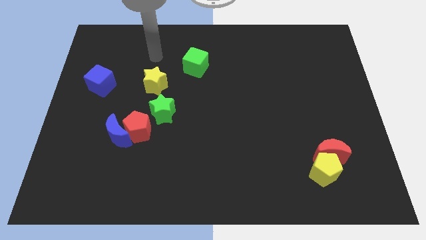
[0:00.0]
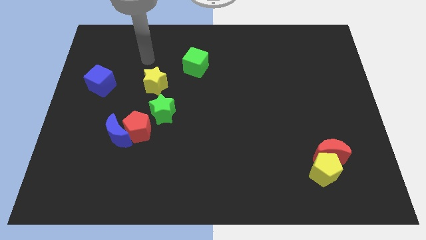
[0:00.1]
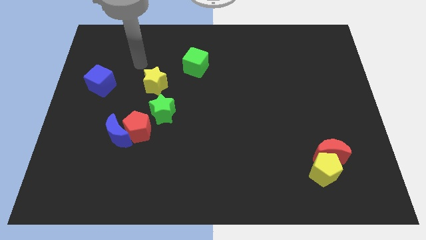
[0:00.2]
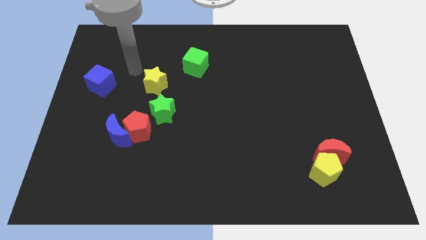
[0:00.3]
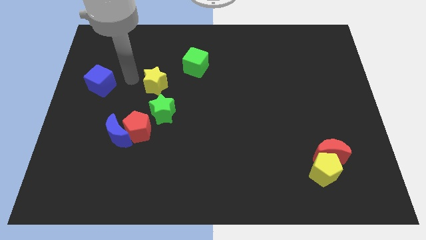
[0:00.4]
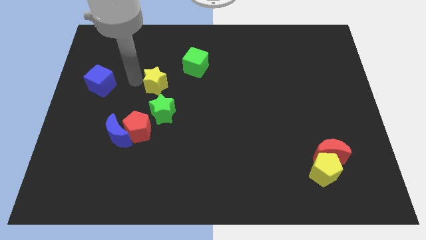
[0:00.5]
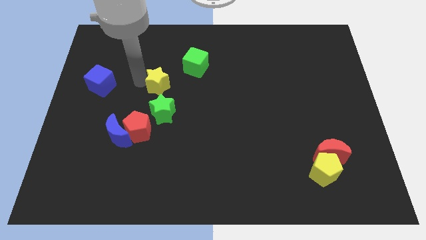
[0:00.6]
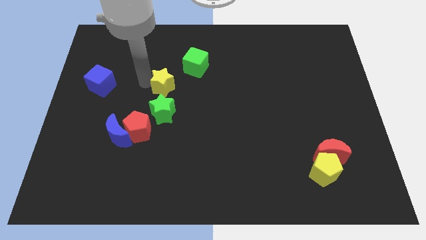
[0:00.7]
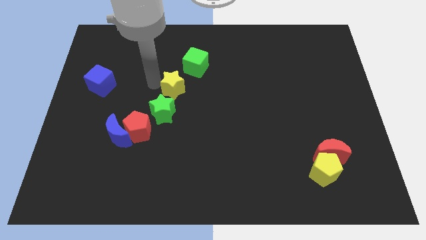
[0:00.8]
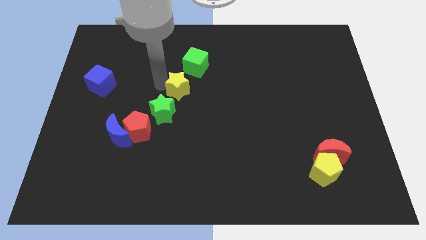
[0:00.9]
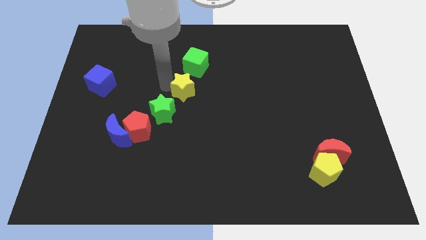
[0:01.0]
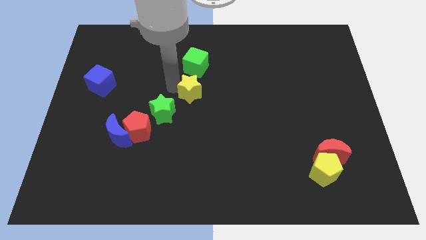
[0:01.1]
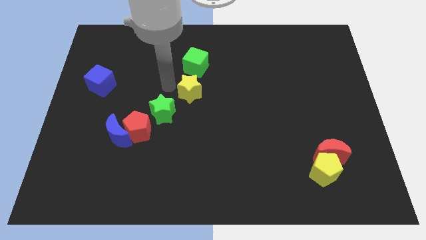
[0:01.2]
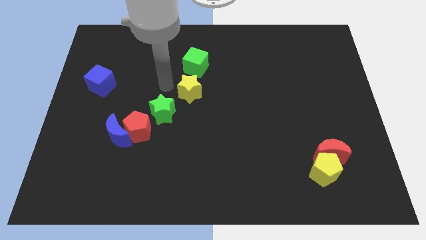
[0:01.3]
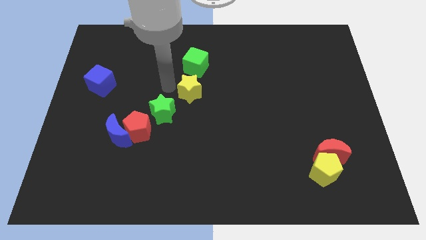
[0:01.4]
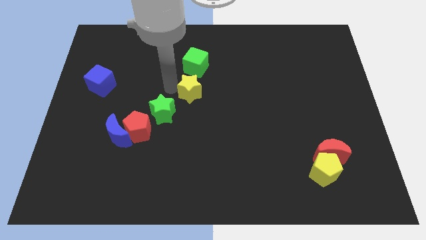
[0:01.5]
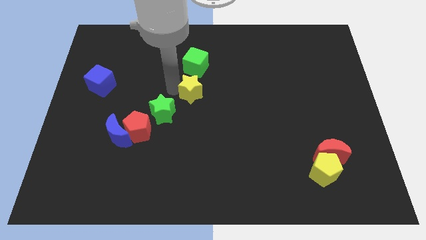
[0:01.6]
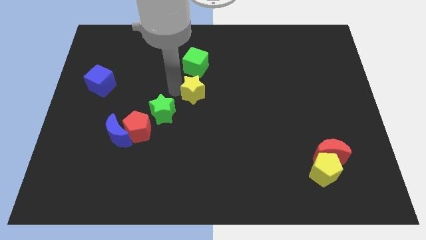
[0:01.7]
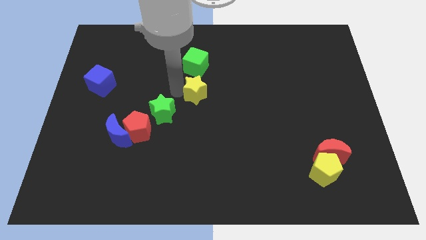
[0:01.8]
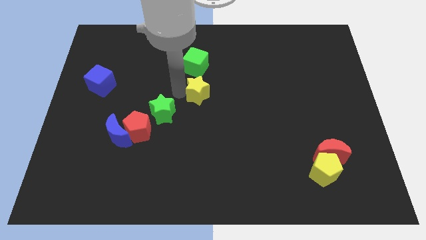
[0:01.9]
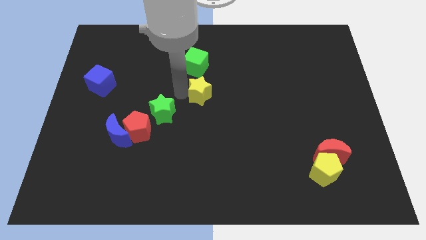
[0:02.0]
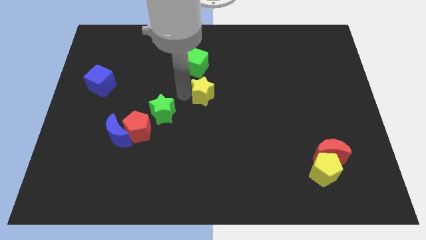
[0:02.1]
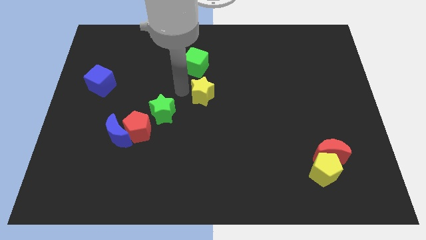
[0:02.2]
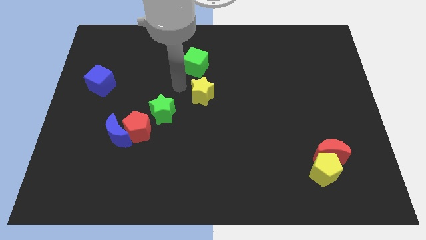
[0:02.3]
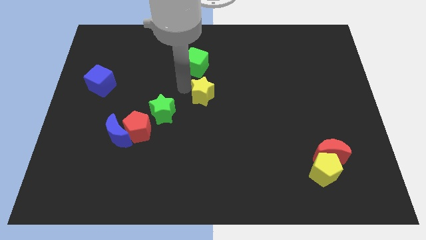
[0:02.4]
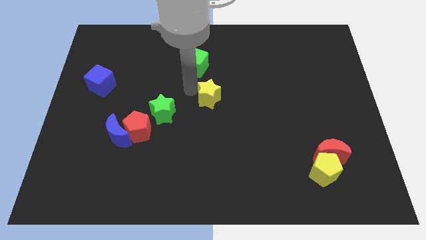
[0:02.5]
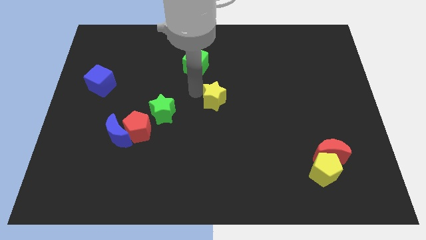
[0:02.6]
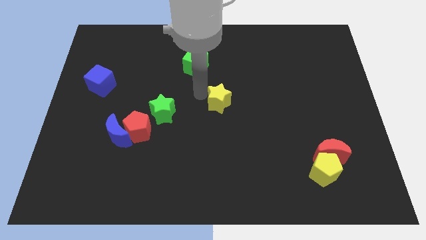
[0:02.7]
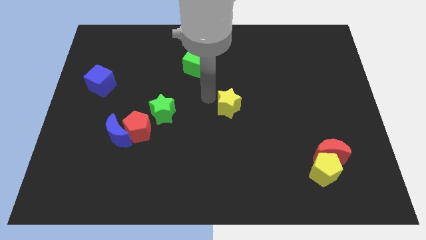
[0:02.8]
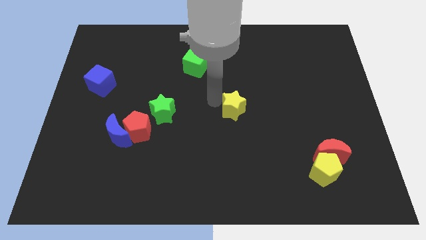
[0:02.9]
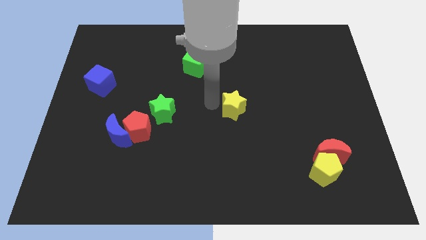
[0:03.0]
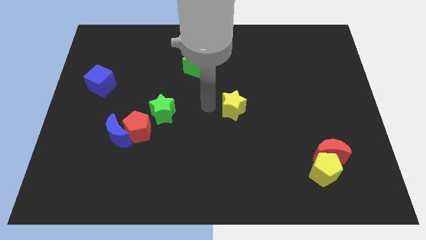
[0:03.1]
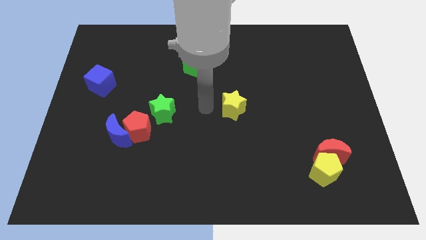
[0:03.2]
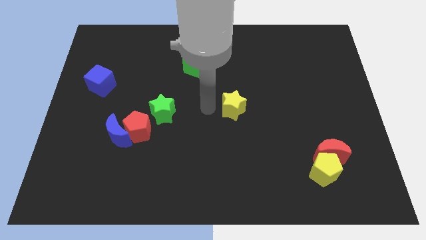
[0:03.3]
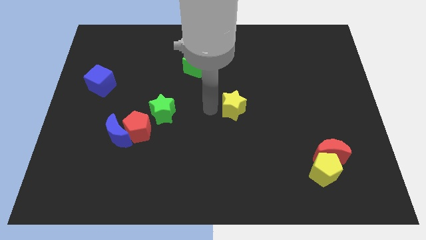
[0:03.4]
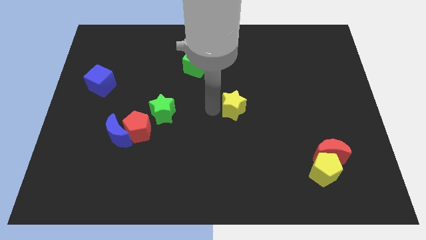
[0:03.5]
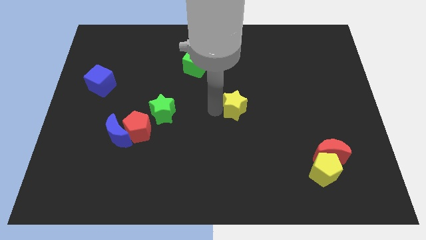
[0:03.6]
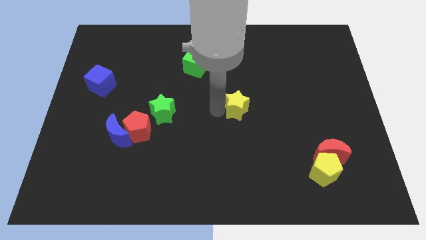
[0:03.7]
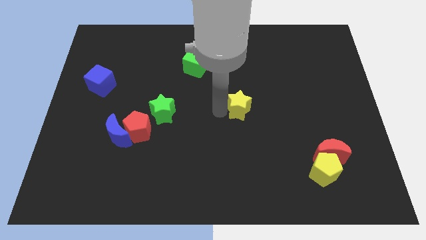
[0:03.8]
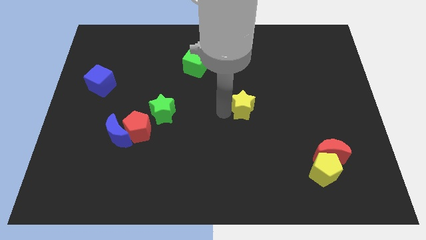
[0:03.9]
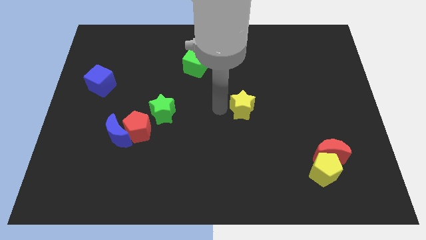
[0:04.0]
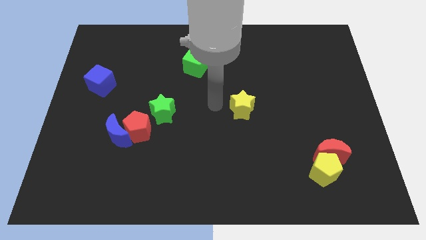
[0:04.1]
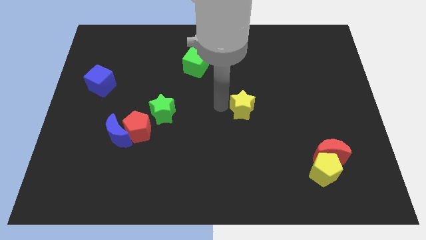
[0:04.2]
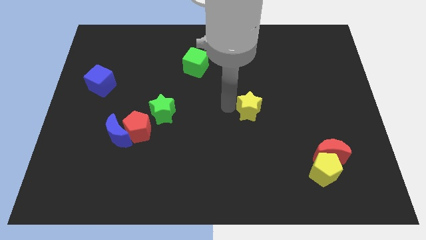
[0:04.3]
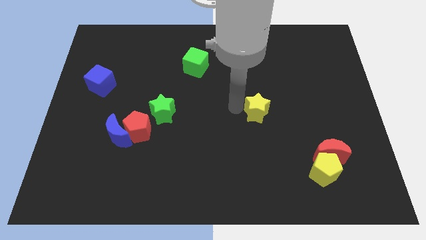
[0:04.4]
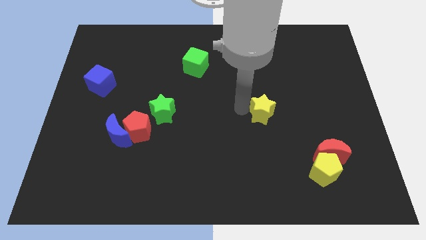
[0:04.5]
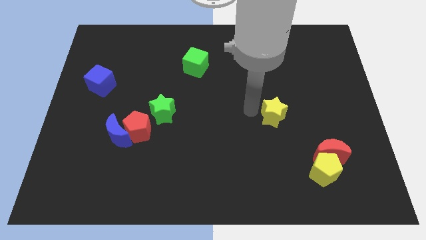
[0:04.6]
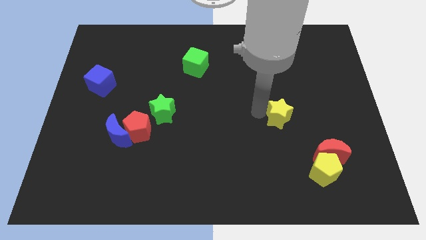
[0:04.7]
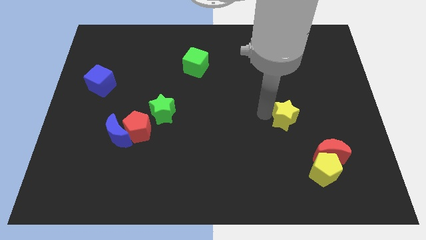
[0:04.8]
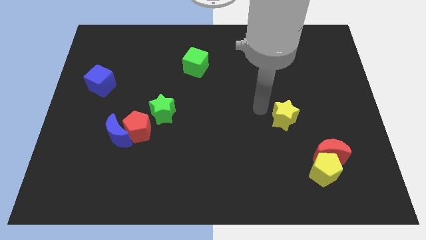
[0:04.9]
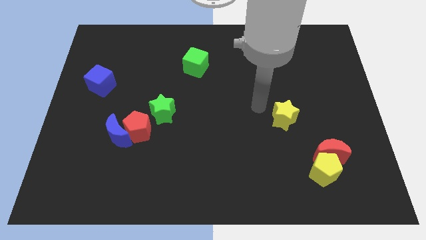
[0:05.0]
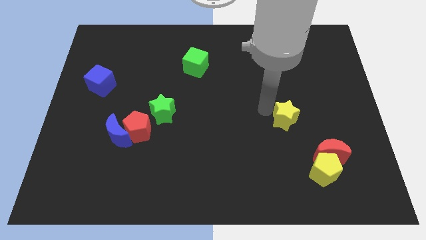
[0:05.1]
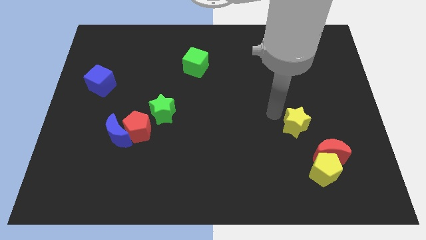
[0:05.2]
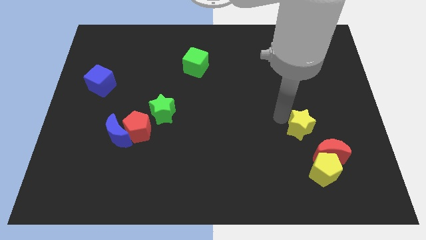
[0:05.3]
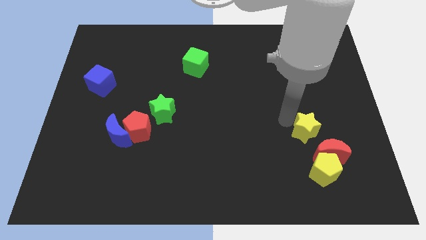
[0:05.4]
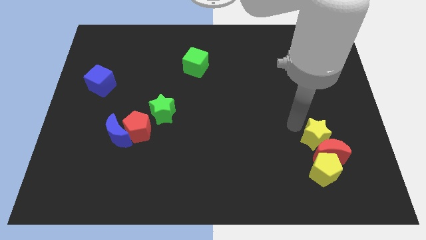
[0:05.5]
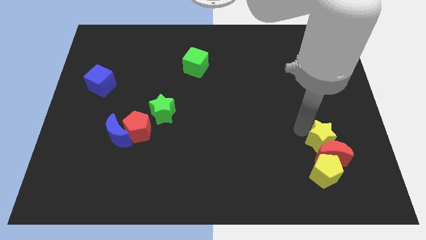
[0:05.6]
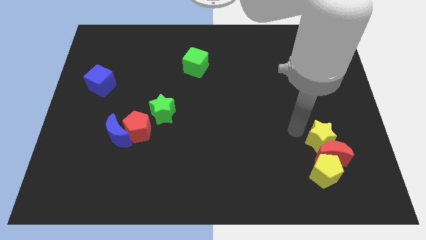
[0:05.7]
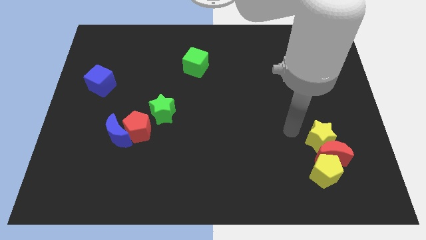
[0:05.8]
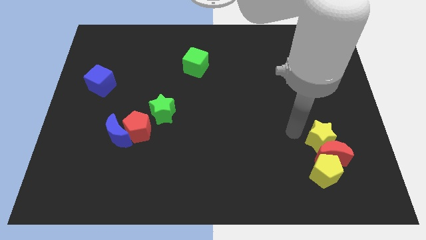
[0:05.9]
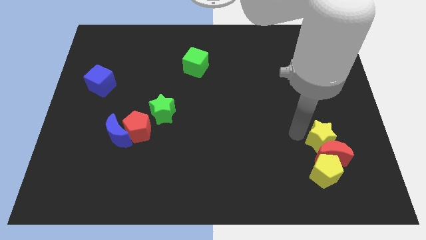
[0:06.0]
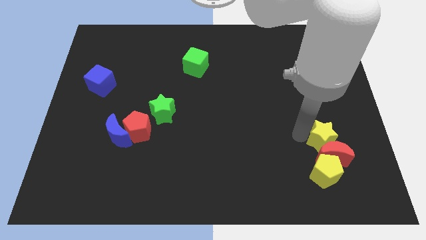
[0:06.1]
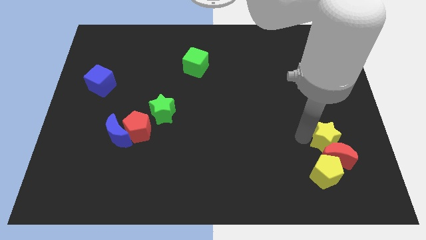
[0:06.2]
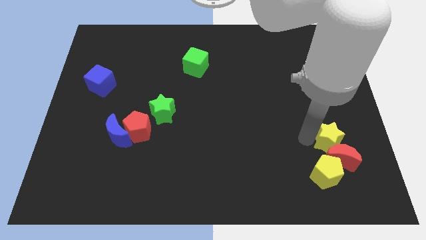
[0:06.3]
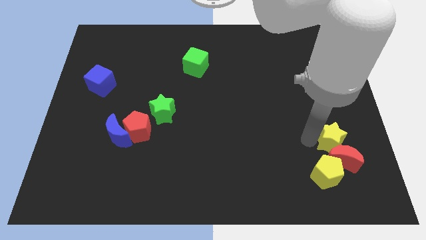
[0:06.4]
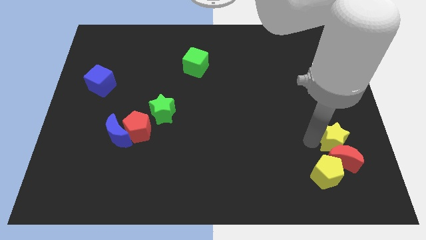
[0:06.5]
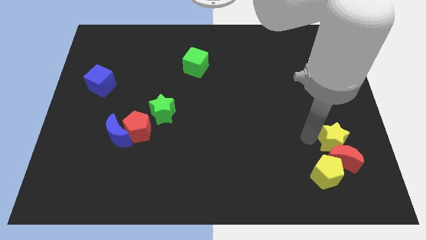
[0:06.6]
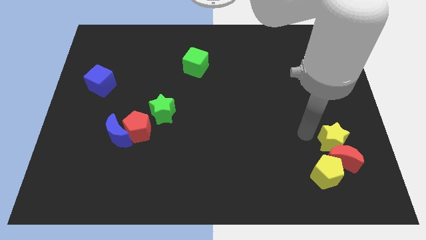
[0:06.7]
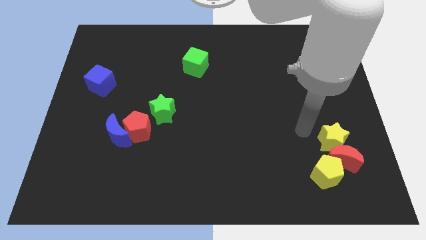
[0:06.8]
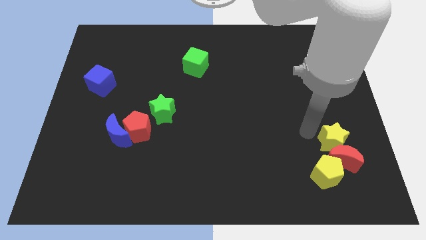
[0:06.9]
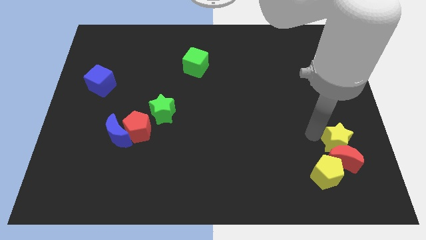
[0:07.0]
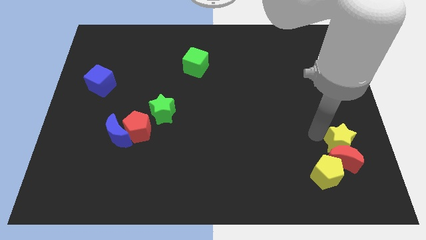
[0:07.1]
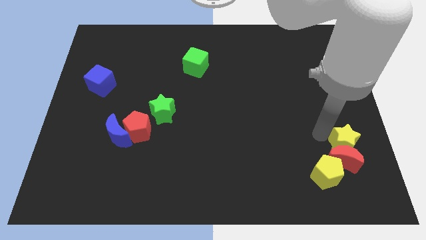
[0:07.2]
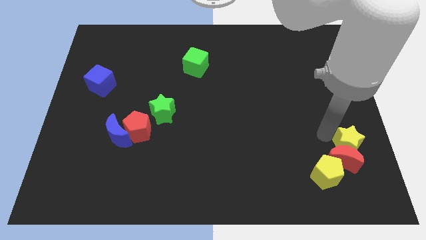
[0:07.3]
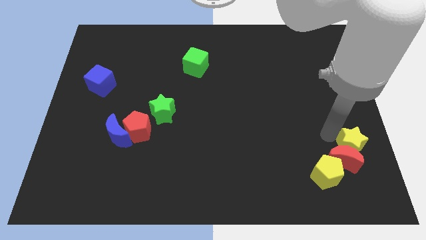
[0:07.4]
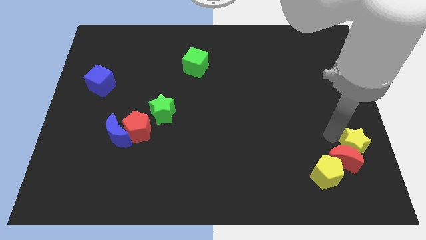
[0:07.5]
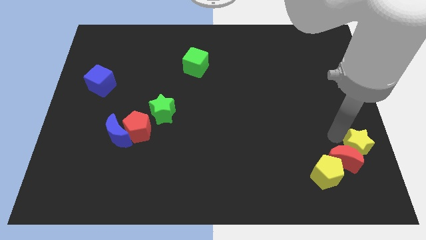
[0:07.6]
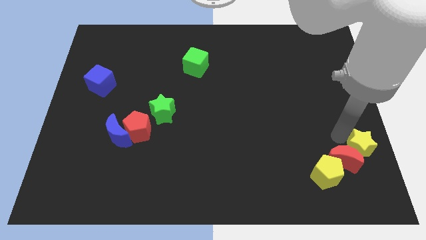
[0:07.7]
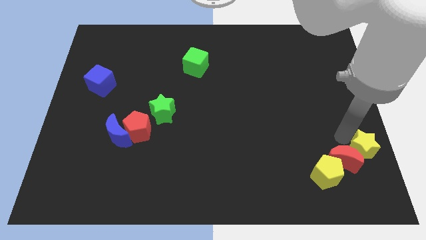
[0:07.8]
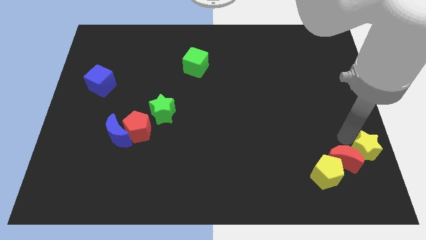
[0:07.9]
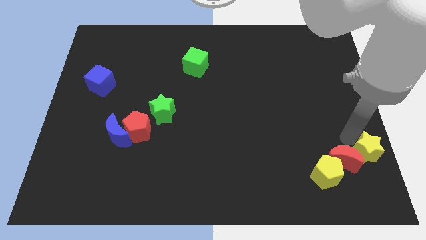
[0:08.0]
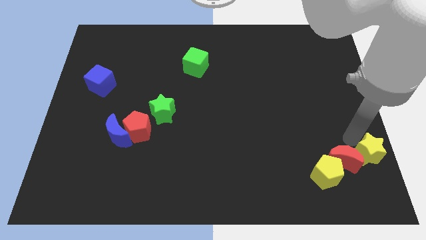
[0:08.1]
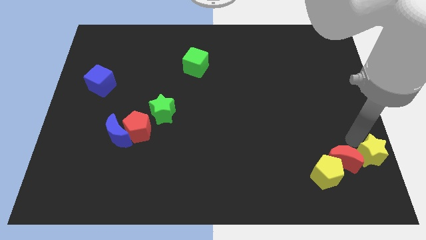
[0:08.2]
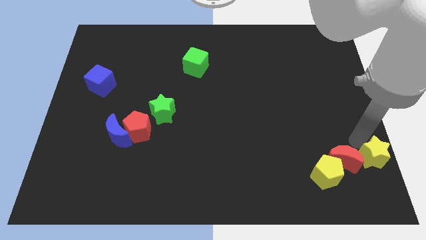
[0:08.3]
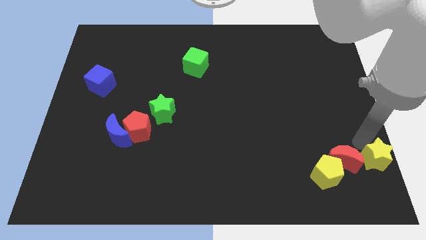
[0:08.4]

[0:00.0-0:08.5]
push the yellow star to the bottom right of the board
